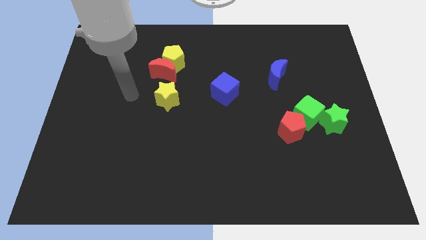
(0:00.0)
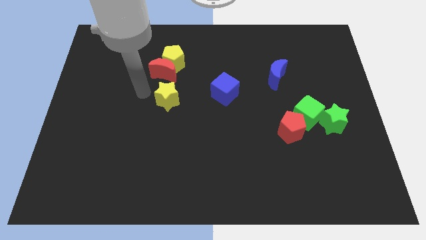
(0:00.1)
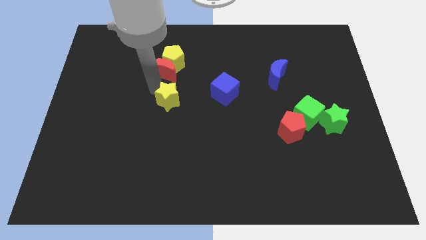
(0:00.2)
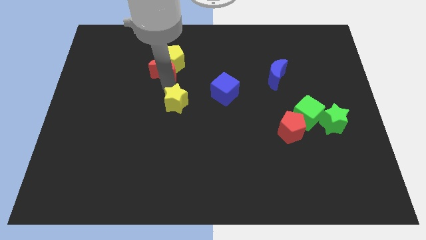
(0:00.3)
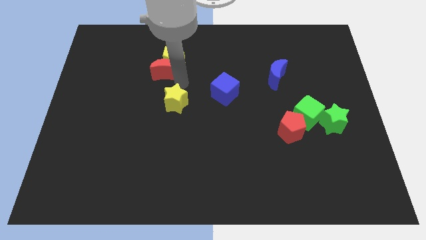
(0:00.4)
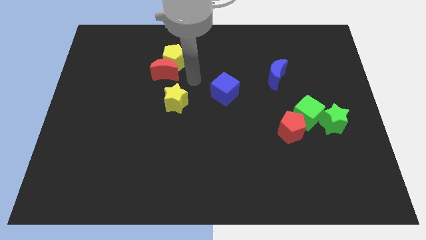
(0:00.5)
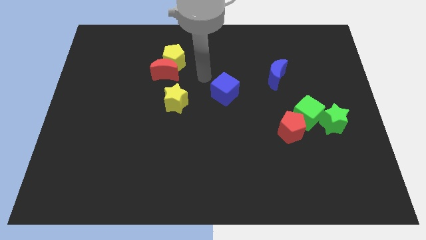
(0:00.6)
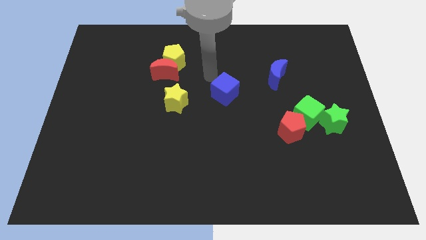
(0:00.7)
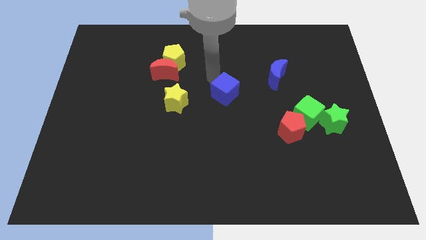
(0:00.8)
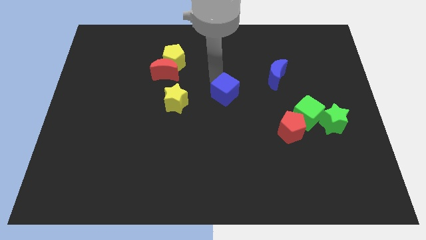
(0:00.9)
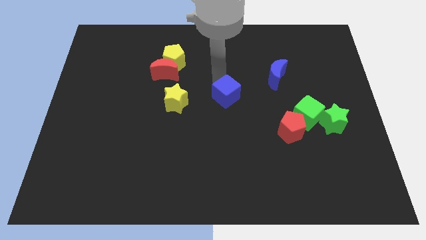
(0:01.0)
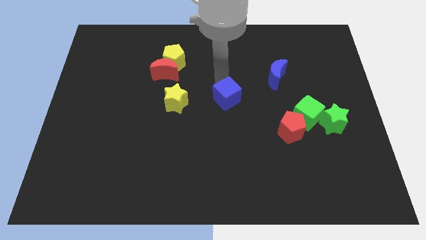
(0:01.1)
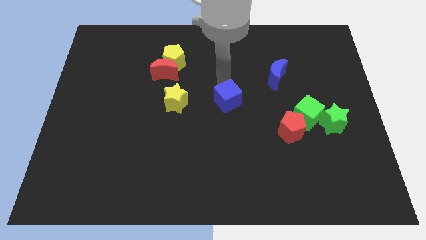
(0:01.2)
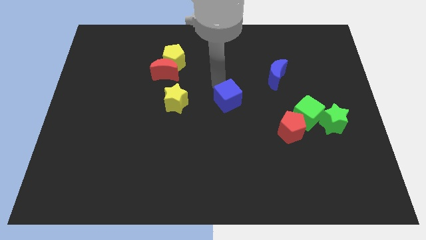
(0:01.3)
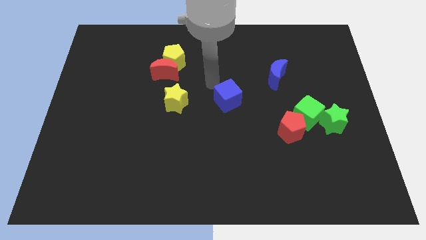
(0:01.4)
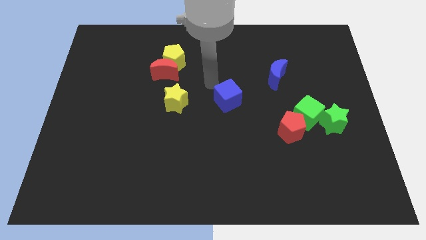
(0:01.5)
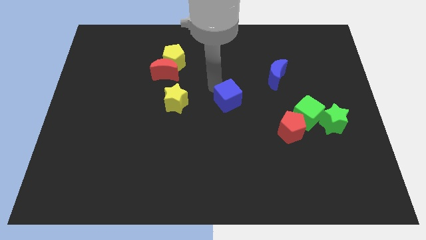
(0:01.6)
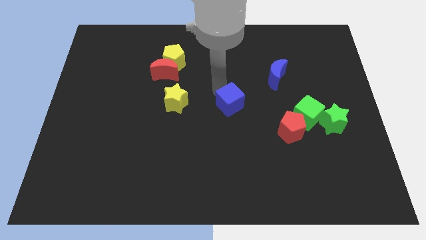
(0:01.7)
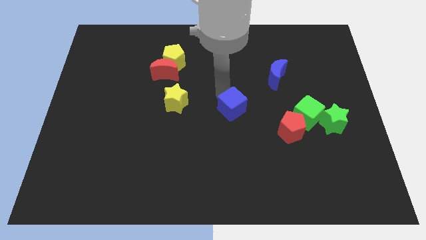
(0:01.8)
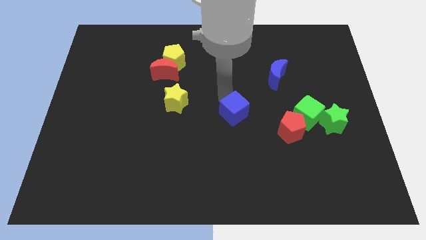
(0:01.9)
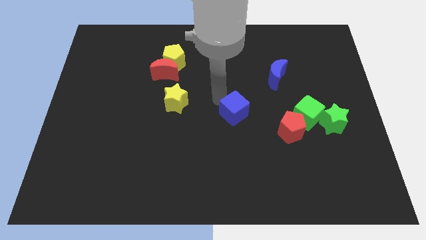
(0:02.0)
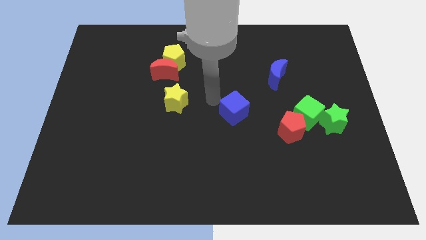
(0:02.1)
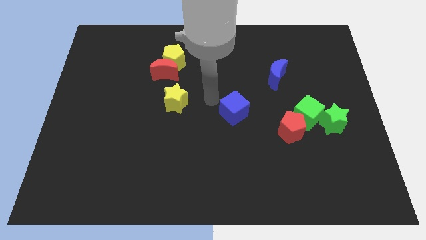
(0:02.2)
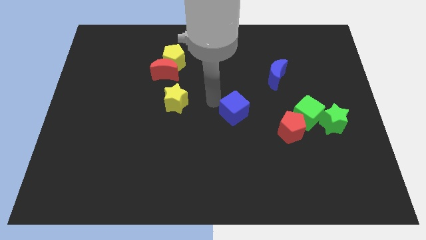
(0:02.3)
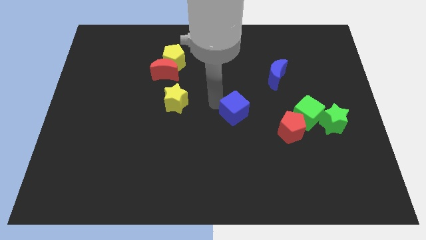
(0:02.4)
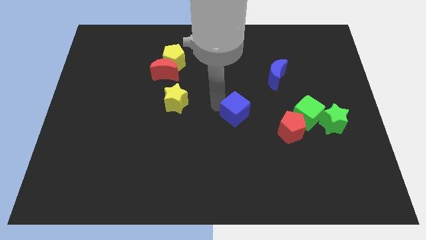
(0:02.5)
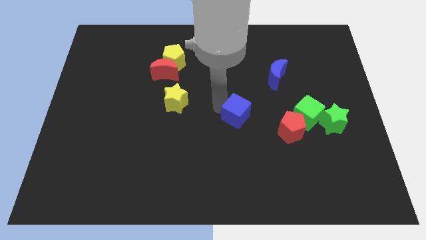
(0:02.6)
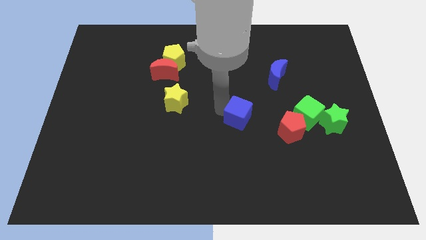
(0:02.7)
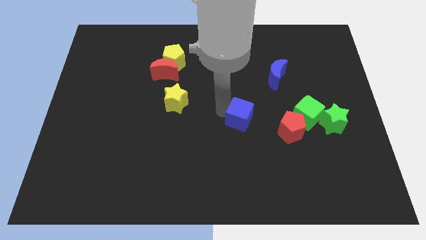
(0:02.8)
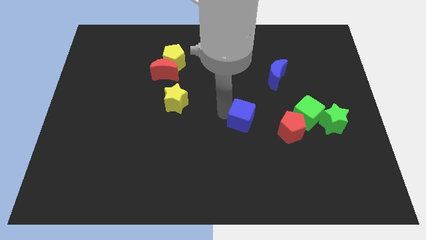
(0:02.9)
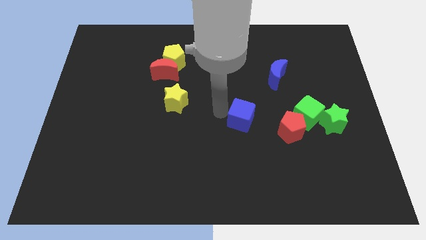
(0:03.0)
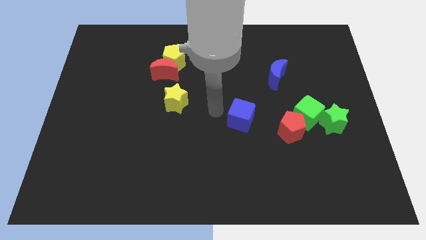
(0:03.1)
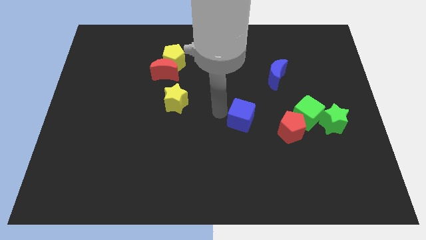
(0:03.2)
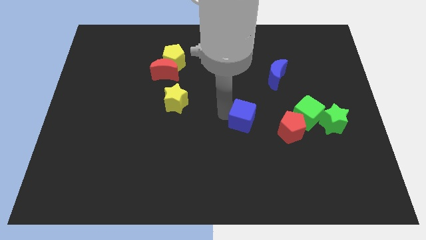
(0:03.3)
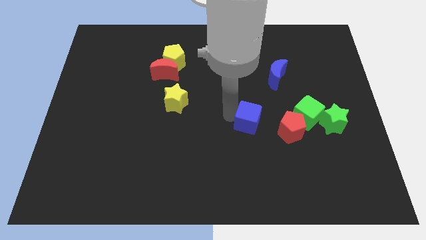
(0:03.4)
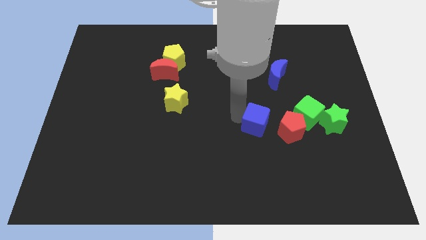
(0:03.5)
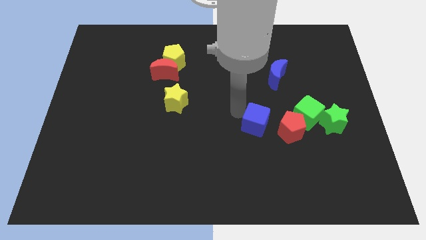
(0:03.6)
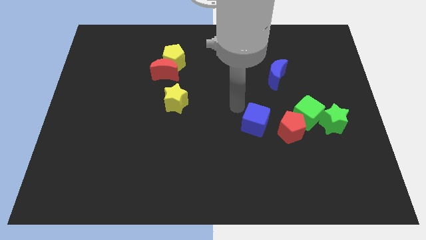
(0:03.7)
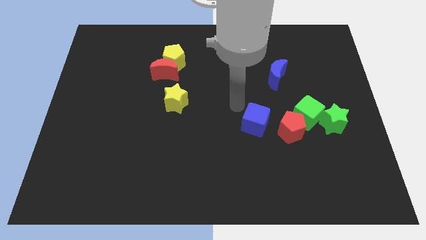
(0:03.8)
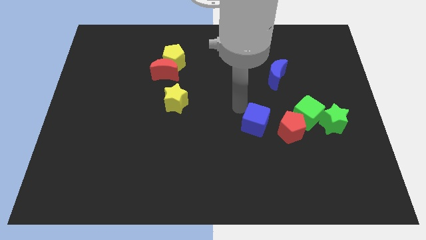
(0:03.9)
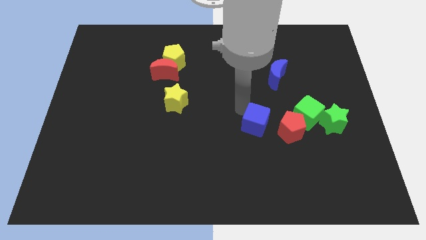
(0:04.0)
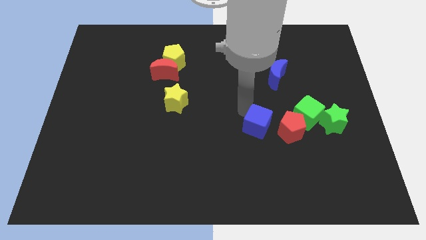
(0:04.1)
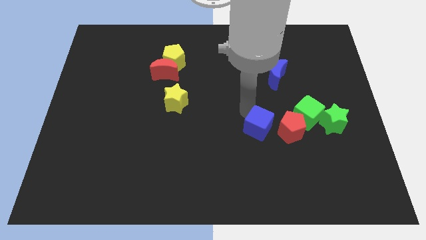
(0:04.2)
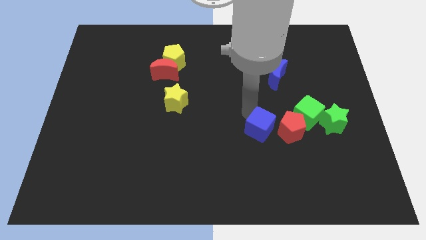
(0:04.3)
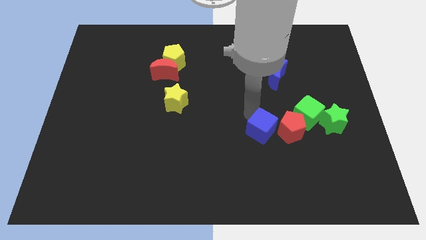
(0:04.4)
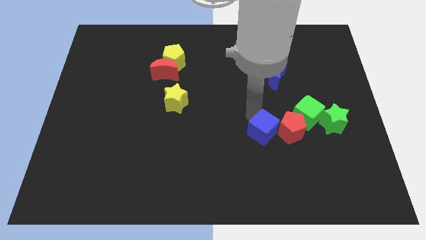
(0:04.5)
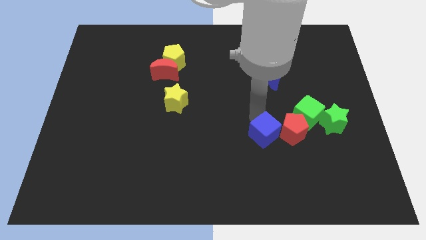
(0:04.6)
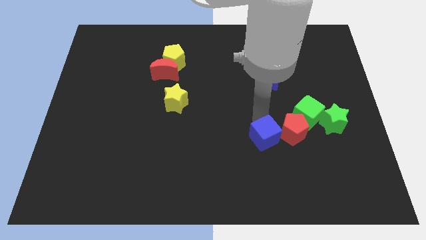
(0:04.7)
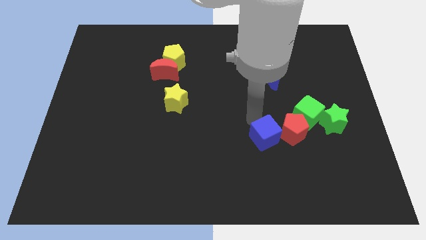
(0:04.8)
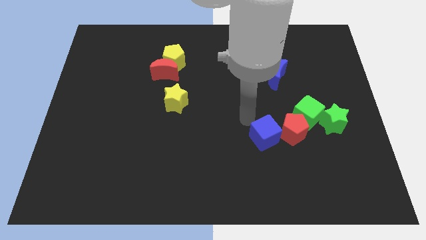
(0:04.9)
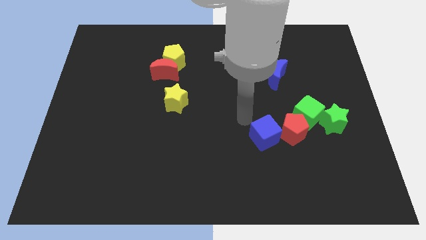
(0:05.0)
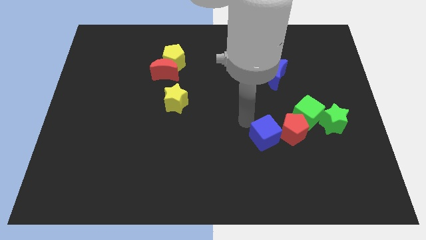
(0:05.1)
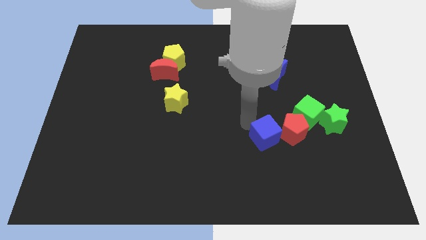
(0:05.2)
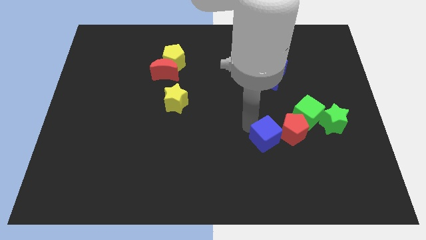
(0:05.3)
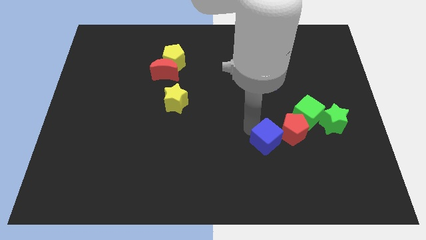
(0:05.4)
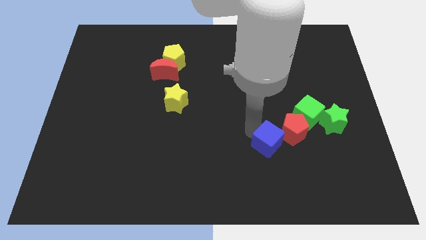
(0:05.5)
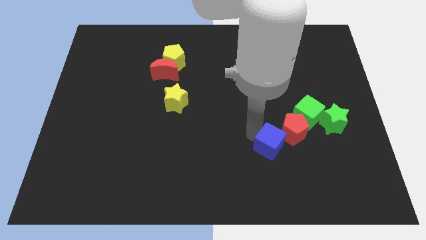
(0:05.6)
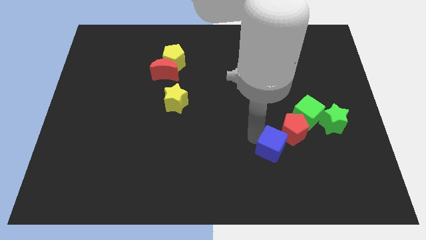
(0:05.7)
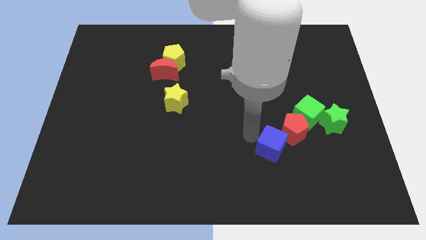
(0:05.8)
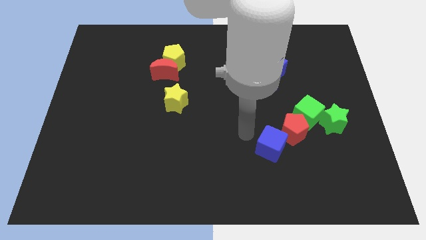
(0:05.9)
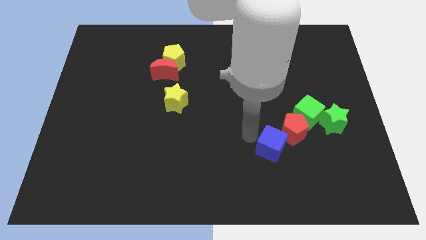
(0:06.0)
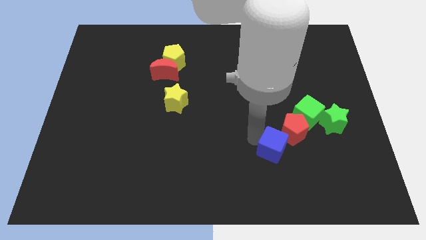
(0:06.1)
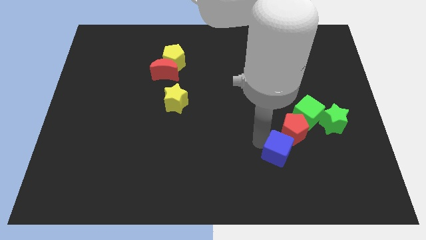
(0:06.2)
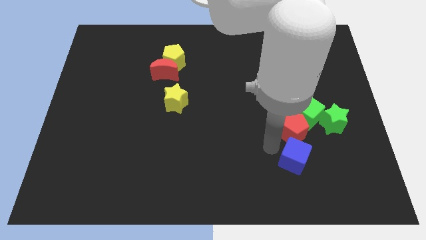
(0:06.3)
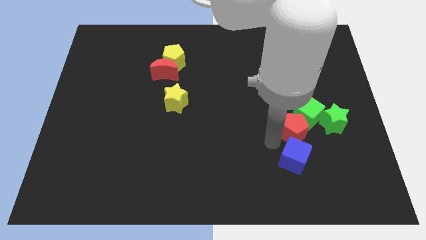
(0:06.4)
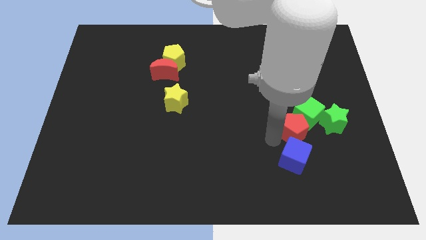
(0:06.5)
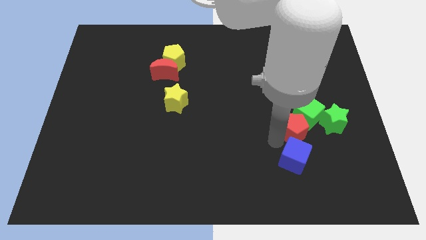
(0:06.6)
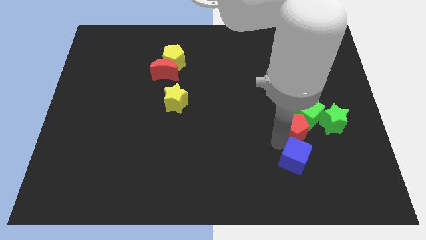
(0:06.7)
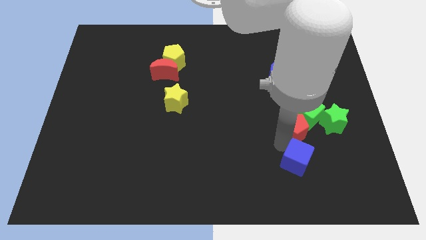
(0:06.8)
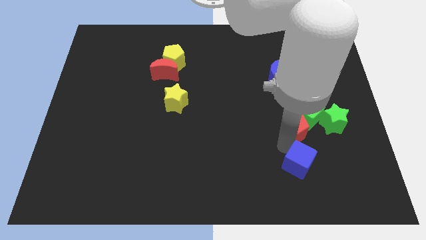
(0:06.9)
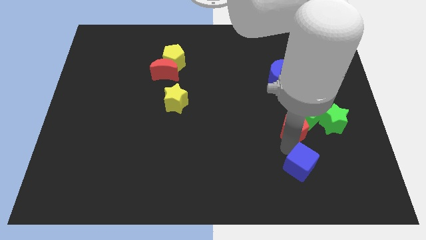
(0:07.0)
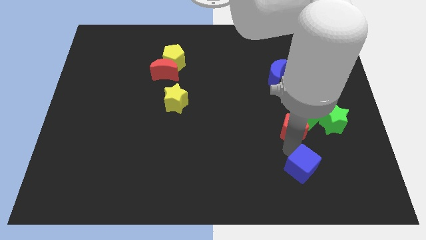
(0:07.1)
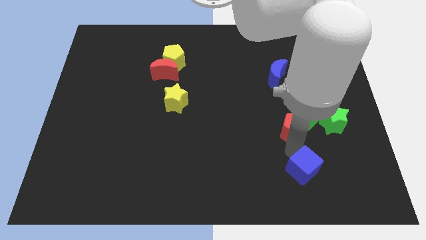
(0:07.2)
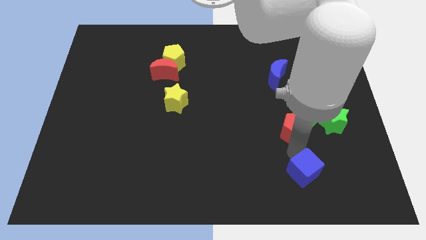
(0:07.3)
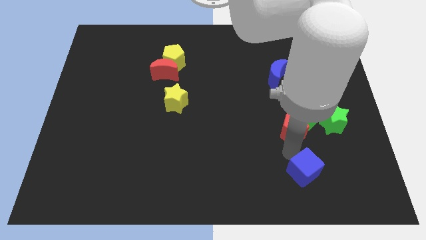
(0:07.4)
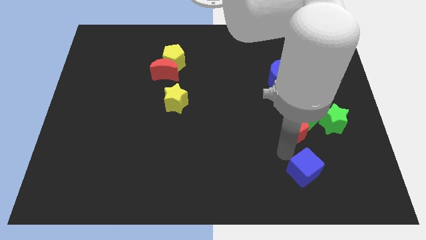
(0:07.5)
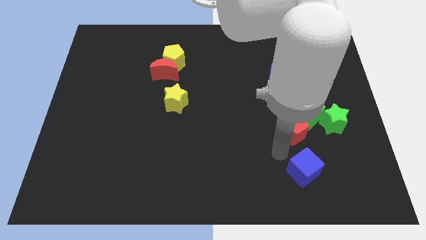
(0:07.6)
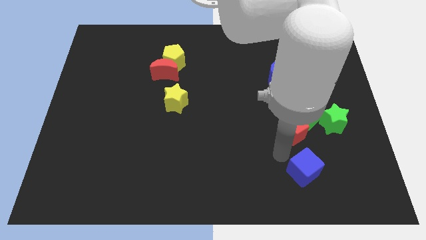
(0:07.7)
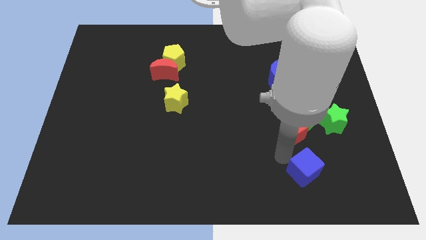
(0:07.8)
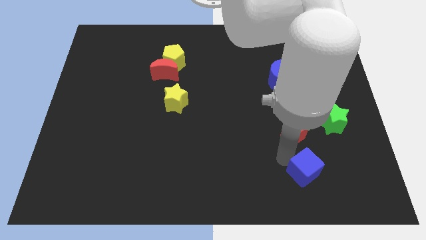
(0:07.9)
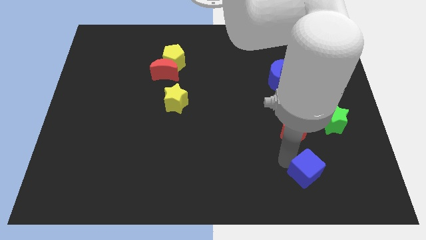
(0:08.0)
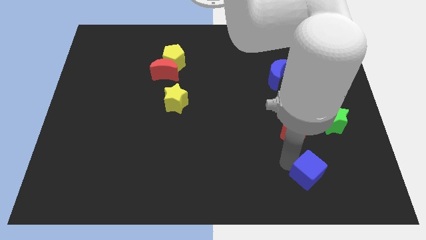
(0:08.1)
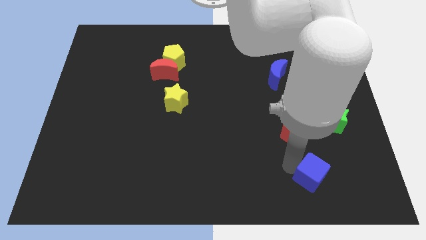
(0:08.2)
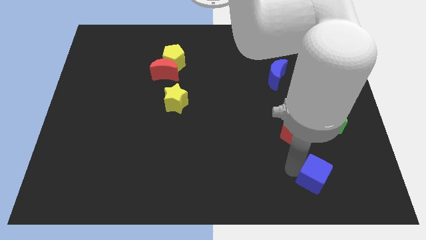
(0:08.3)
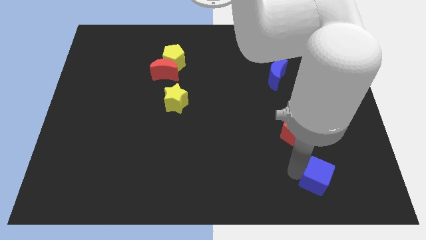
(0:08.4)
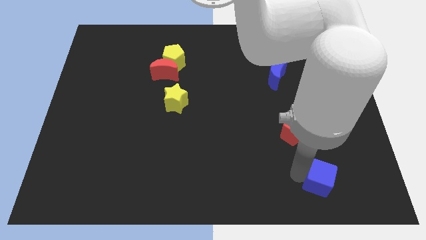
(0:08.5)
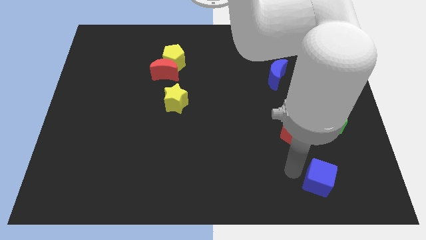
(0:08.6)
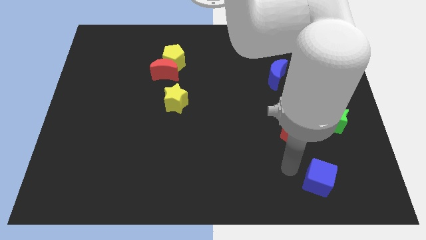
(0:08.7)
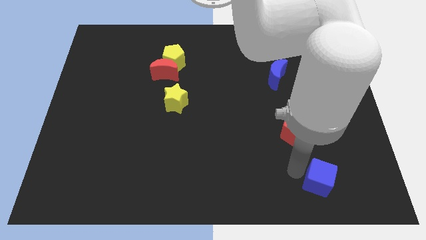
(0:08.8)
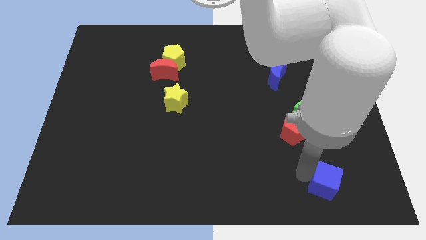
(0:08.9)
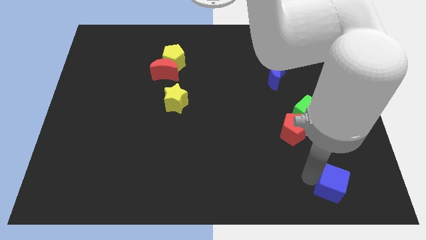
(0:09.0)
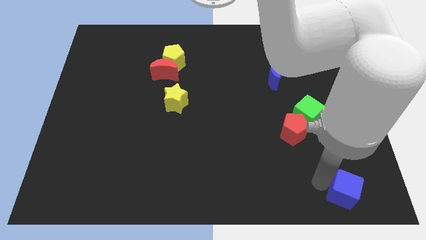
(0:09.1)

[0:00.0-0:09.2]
put the blue cube to the lower right corner
